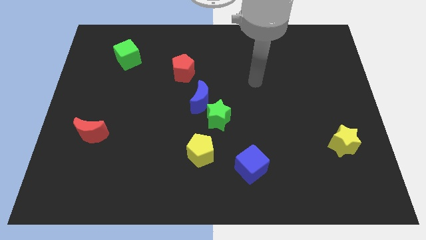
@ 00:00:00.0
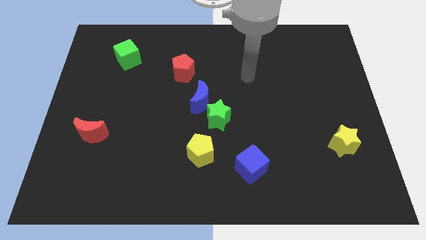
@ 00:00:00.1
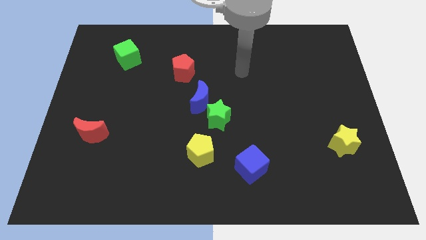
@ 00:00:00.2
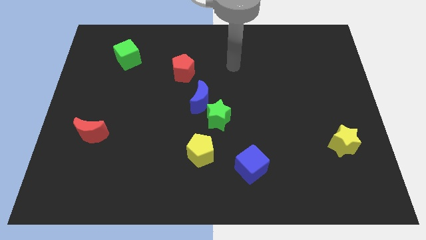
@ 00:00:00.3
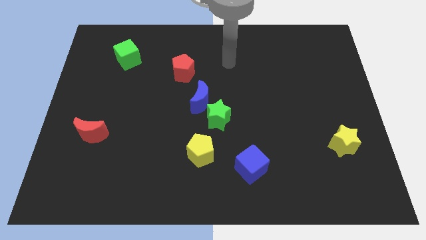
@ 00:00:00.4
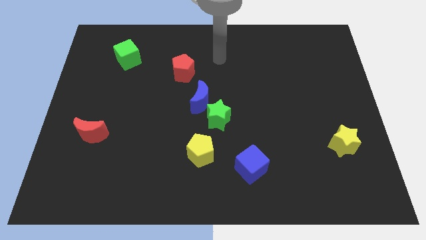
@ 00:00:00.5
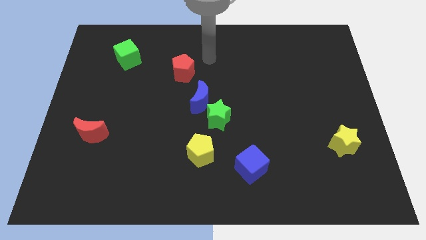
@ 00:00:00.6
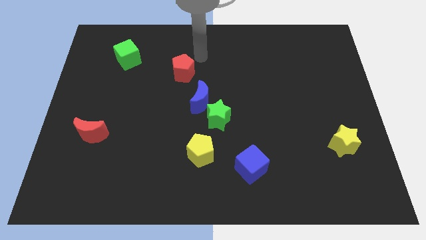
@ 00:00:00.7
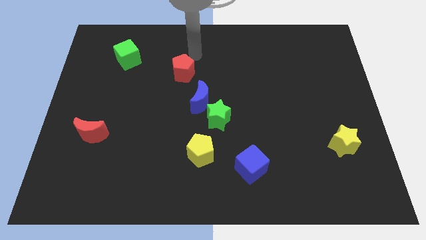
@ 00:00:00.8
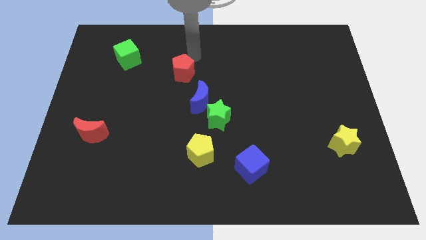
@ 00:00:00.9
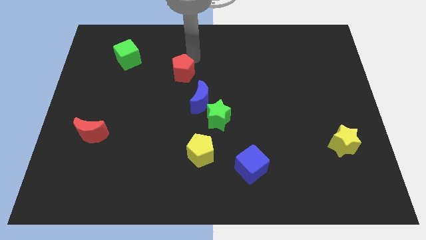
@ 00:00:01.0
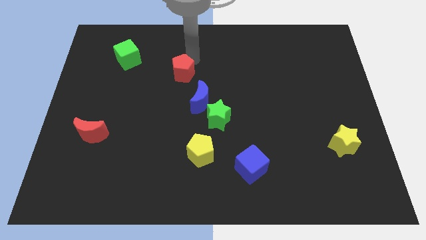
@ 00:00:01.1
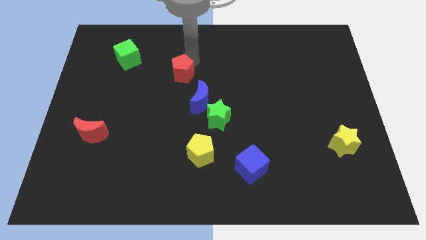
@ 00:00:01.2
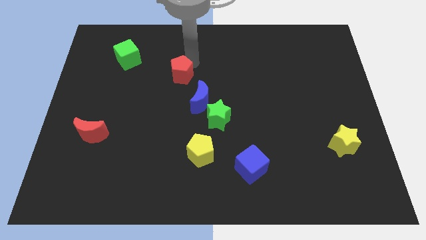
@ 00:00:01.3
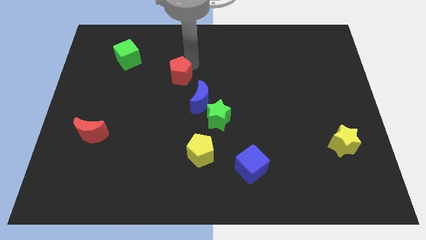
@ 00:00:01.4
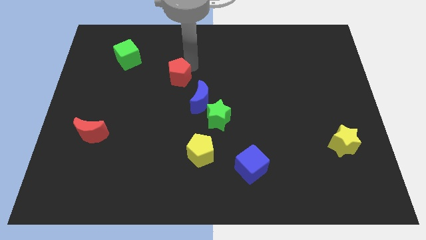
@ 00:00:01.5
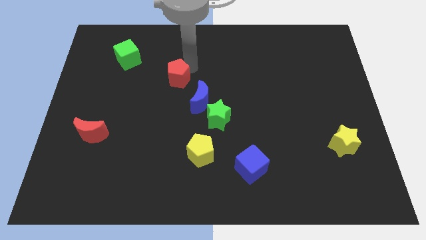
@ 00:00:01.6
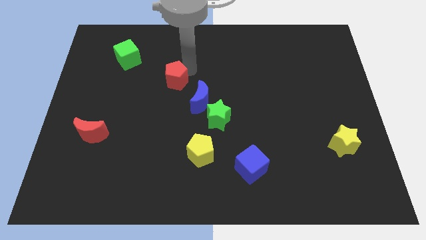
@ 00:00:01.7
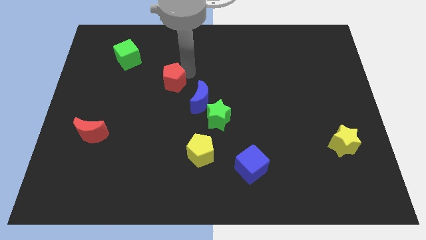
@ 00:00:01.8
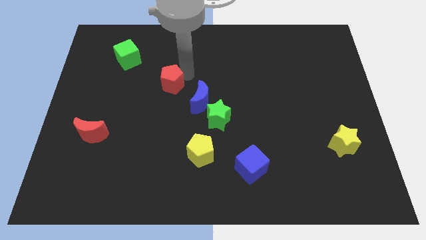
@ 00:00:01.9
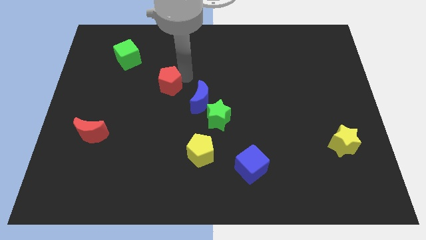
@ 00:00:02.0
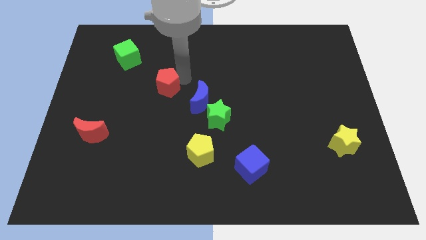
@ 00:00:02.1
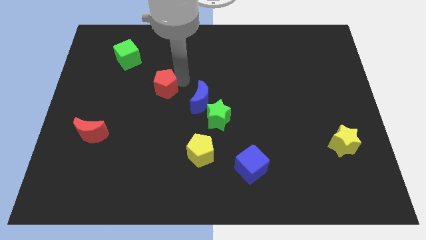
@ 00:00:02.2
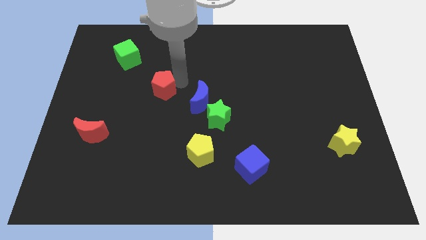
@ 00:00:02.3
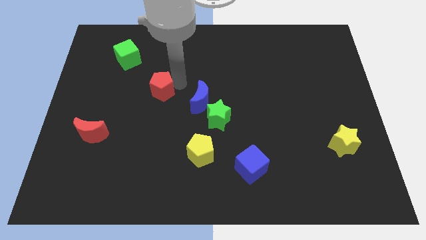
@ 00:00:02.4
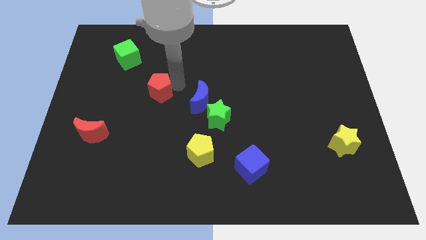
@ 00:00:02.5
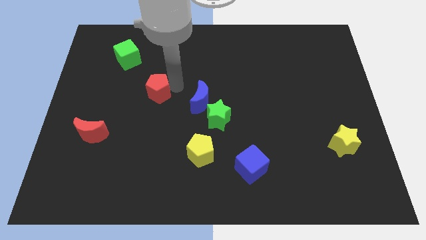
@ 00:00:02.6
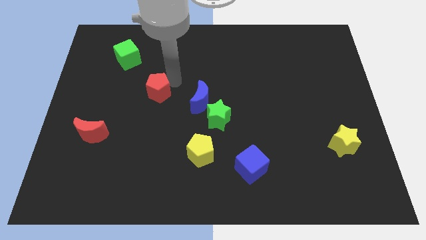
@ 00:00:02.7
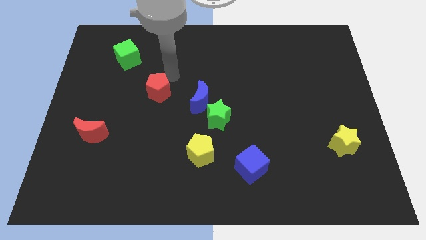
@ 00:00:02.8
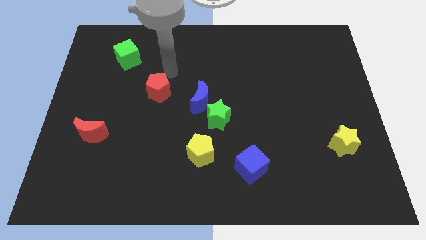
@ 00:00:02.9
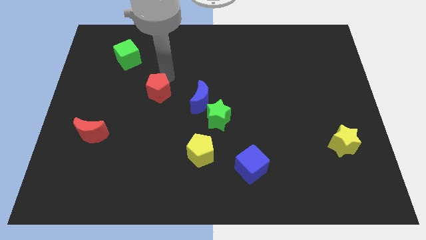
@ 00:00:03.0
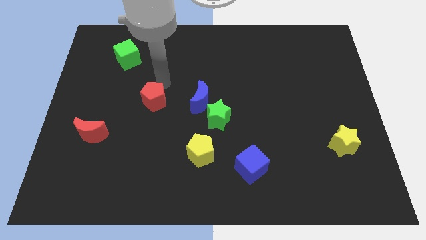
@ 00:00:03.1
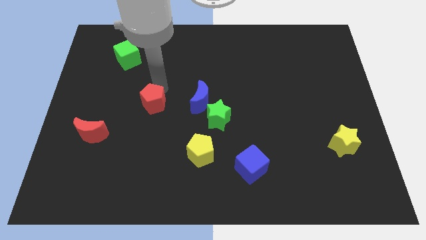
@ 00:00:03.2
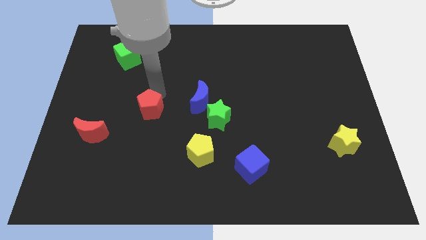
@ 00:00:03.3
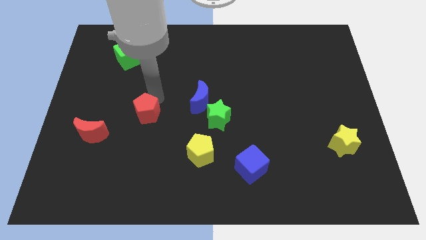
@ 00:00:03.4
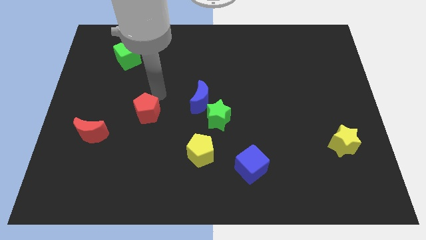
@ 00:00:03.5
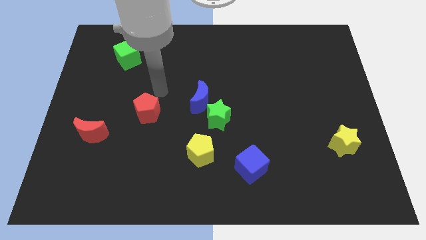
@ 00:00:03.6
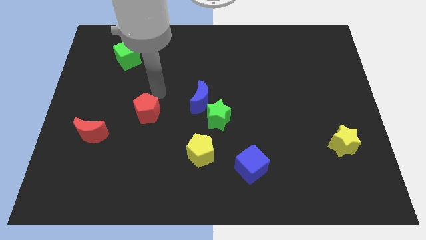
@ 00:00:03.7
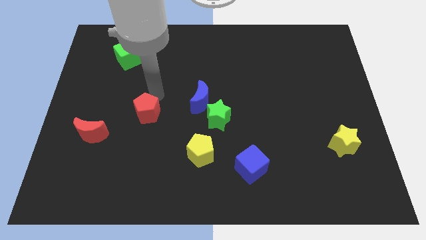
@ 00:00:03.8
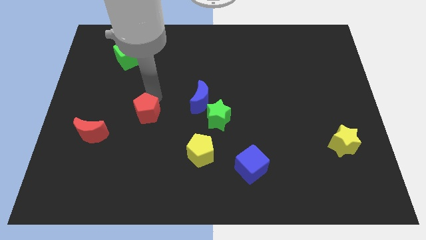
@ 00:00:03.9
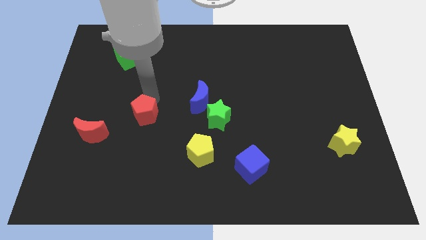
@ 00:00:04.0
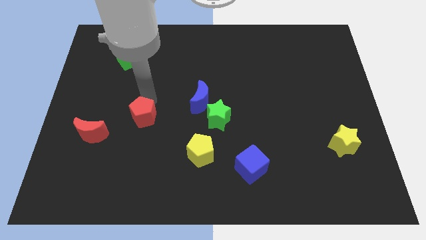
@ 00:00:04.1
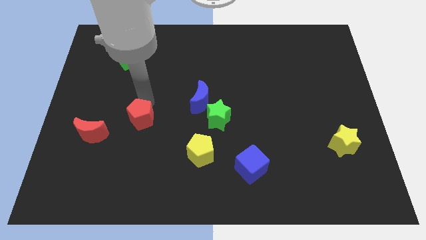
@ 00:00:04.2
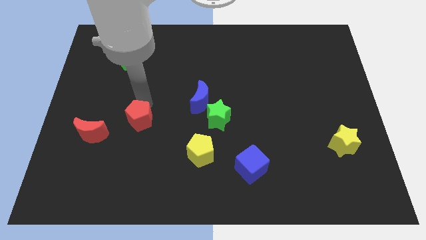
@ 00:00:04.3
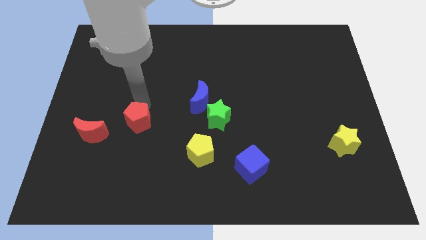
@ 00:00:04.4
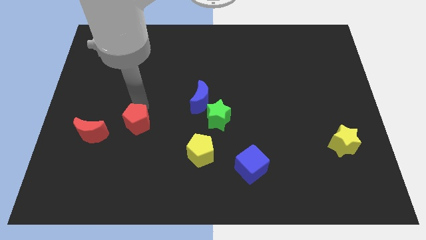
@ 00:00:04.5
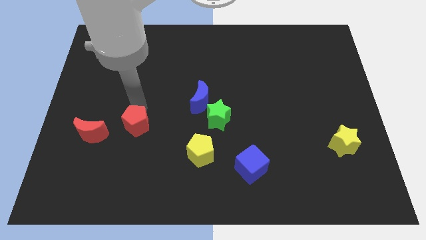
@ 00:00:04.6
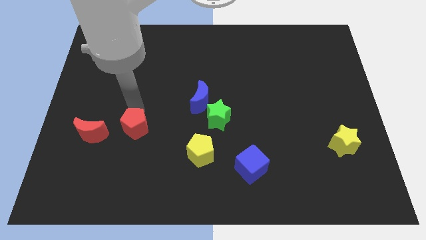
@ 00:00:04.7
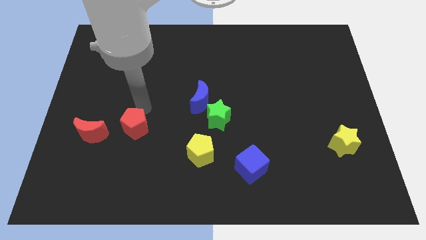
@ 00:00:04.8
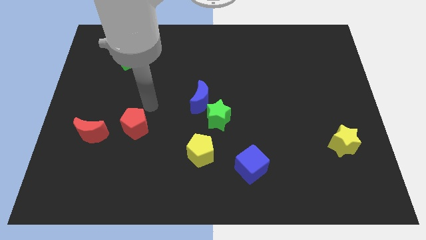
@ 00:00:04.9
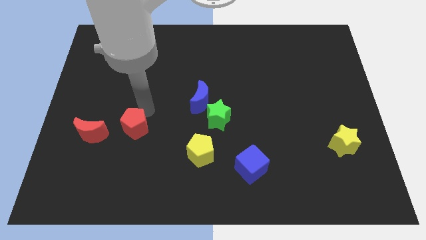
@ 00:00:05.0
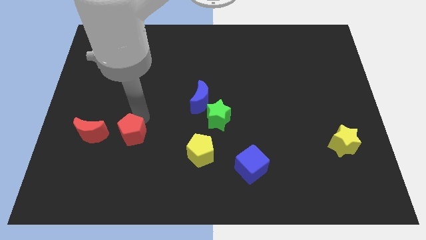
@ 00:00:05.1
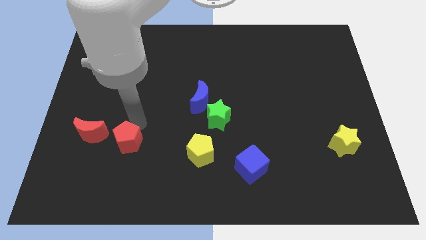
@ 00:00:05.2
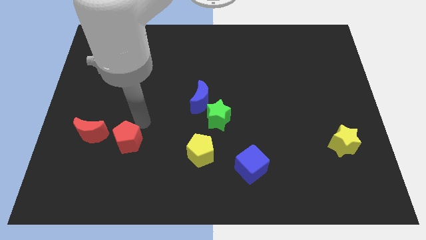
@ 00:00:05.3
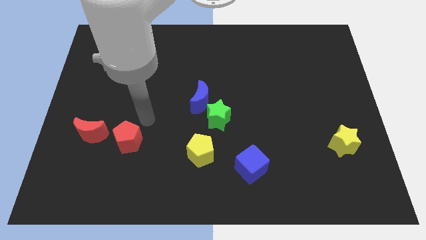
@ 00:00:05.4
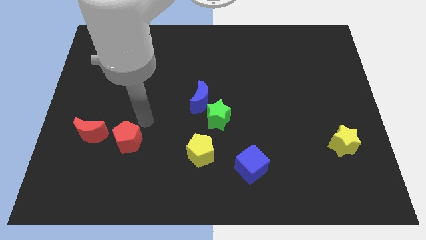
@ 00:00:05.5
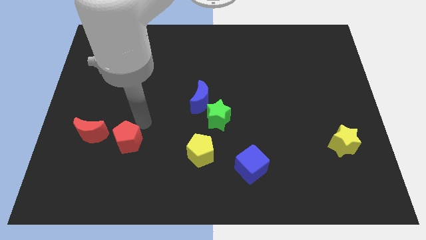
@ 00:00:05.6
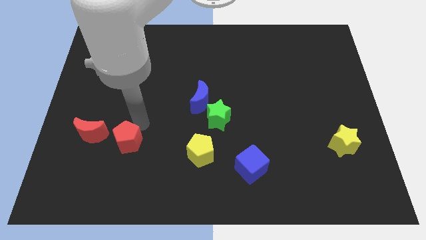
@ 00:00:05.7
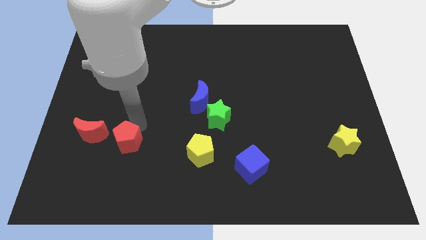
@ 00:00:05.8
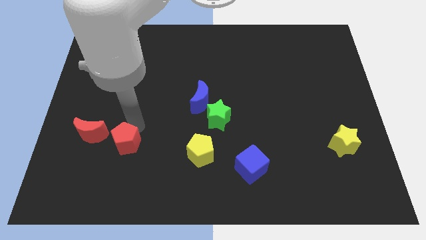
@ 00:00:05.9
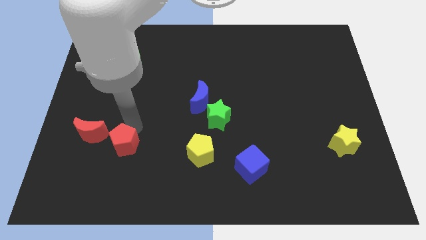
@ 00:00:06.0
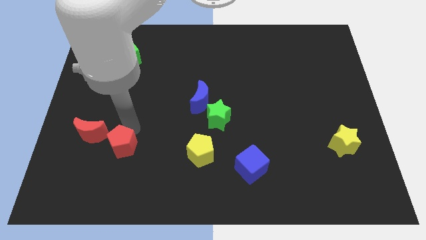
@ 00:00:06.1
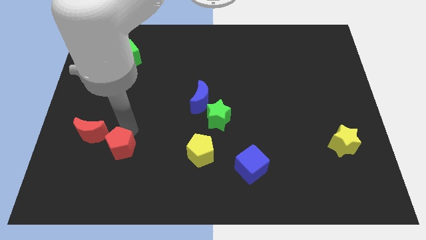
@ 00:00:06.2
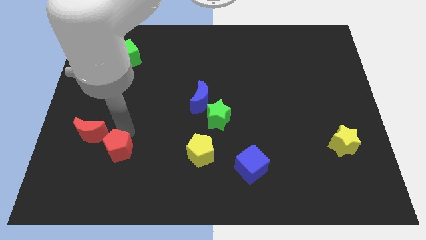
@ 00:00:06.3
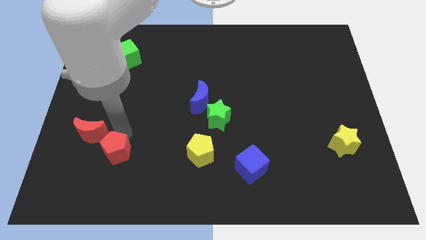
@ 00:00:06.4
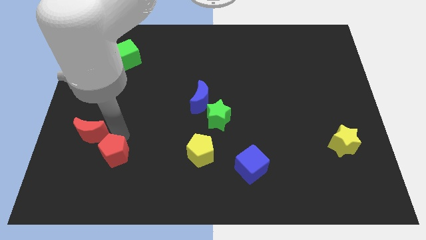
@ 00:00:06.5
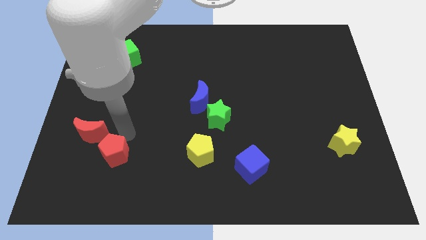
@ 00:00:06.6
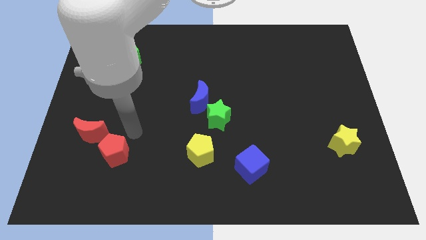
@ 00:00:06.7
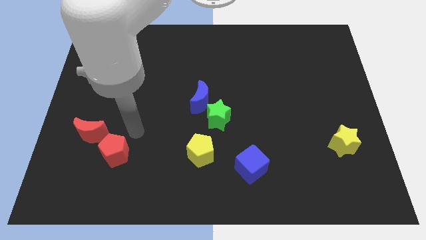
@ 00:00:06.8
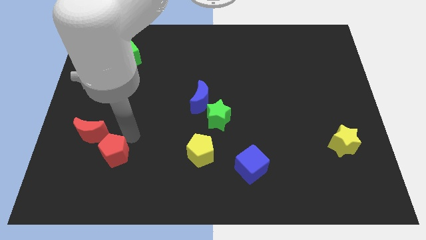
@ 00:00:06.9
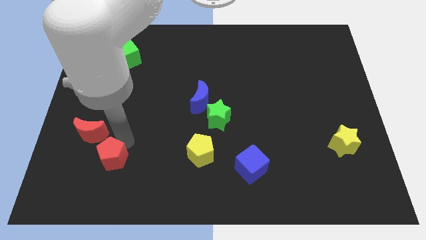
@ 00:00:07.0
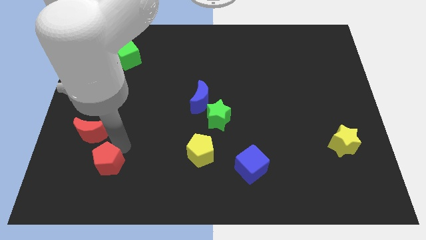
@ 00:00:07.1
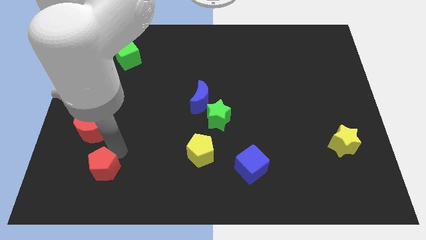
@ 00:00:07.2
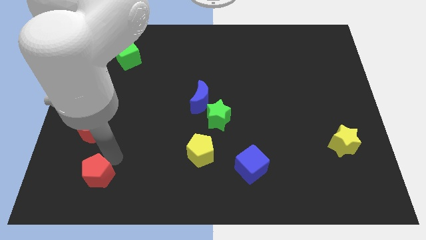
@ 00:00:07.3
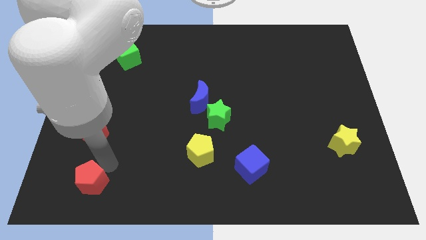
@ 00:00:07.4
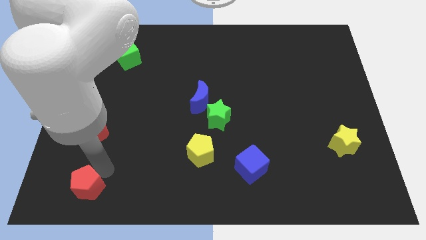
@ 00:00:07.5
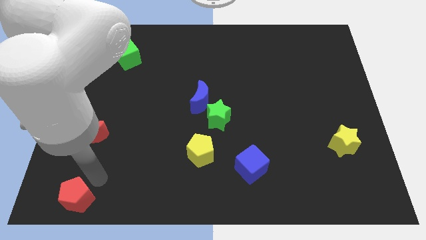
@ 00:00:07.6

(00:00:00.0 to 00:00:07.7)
push the red pentagon to the bottom left
